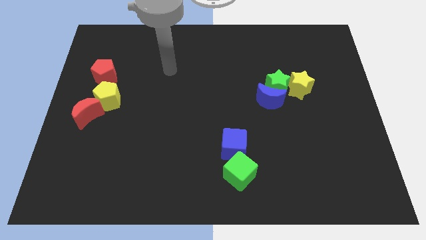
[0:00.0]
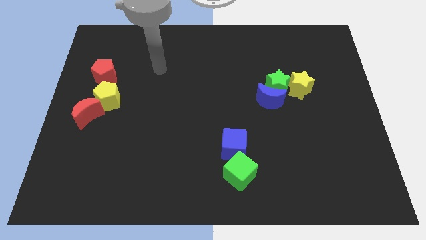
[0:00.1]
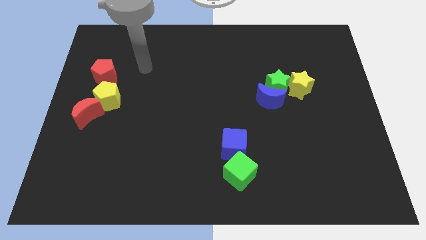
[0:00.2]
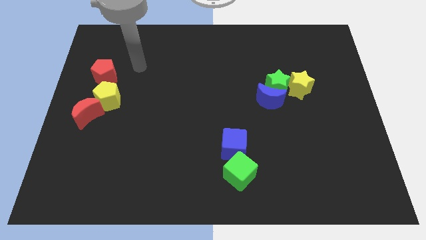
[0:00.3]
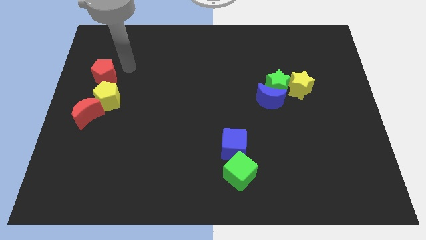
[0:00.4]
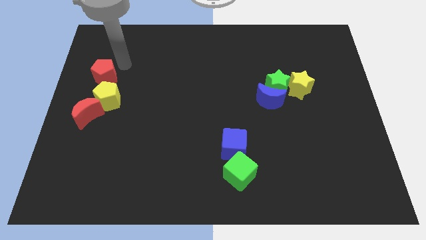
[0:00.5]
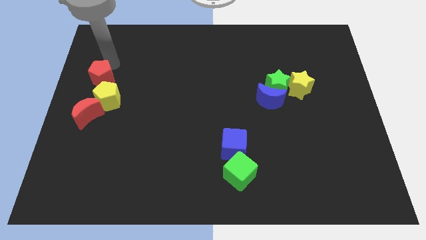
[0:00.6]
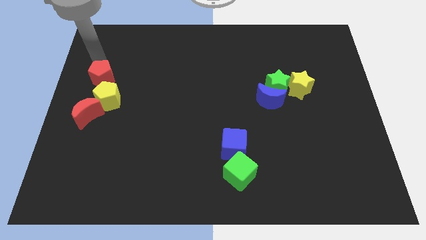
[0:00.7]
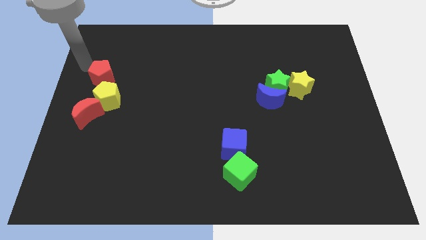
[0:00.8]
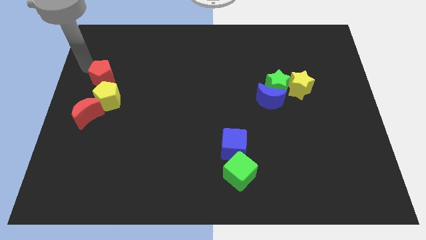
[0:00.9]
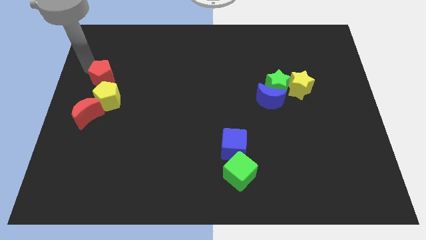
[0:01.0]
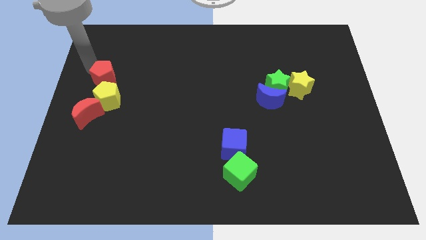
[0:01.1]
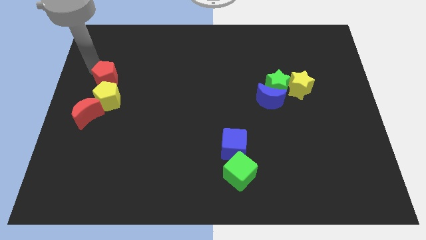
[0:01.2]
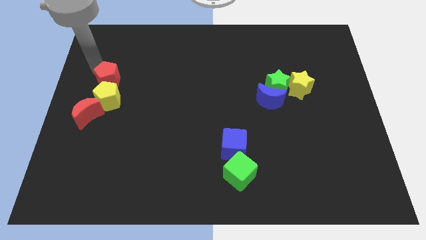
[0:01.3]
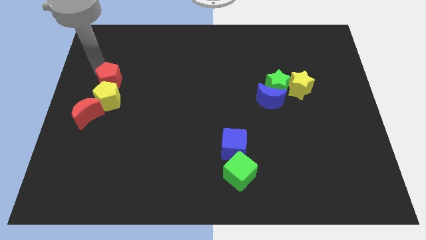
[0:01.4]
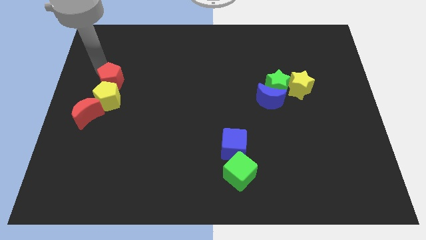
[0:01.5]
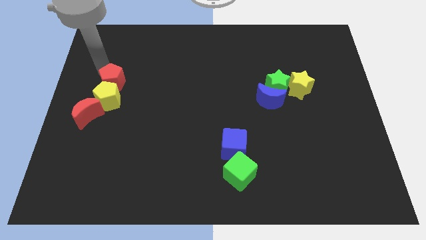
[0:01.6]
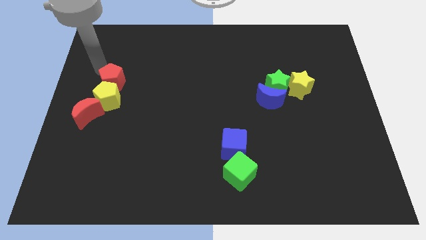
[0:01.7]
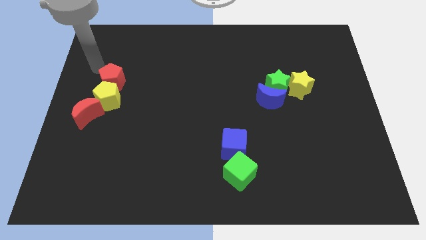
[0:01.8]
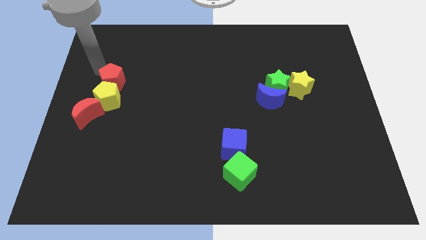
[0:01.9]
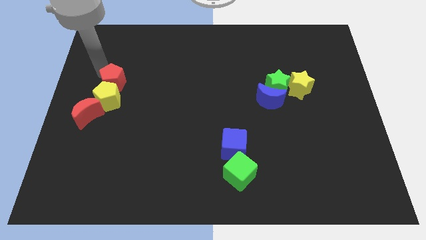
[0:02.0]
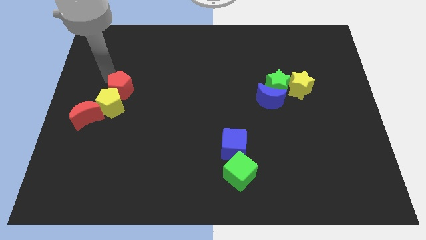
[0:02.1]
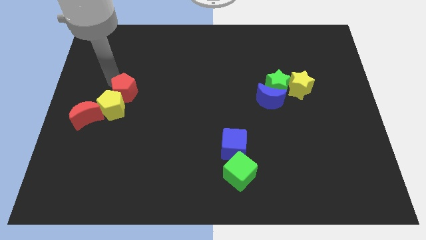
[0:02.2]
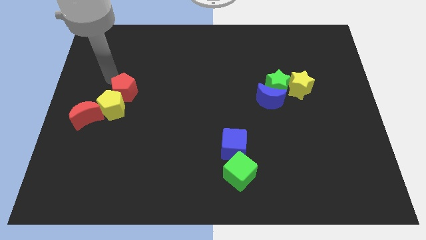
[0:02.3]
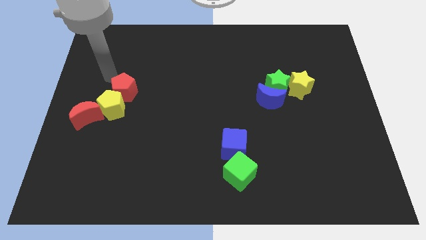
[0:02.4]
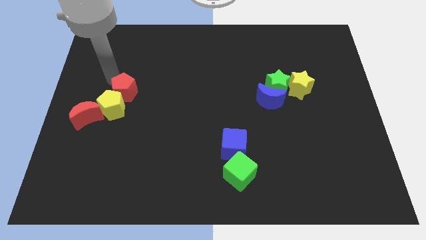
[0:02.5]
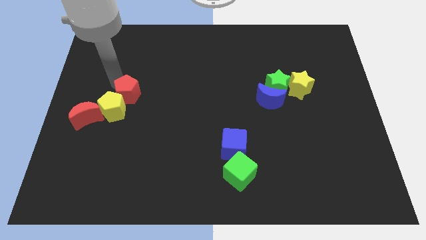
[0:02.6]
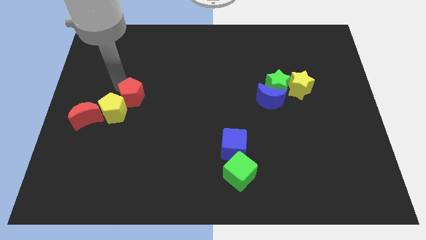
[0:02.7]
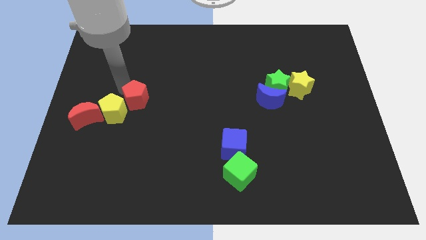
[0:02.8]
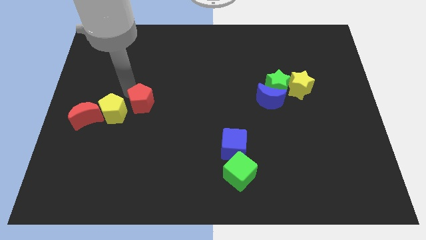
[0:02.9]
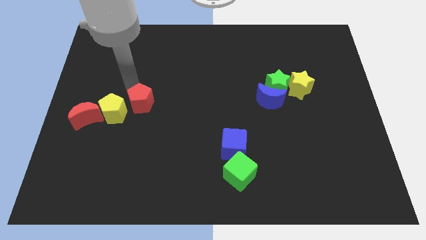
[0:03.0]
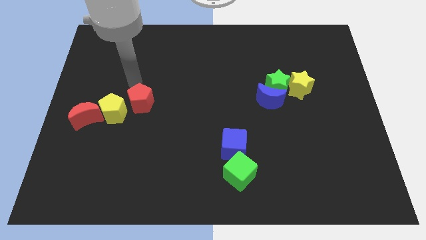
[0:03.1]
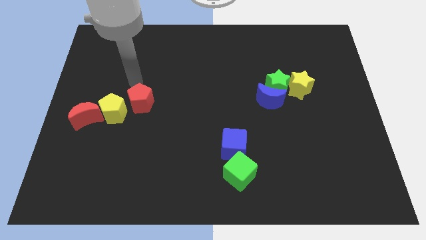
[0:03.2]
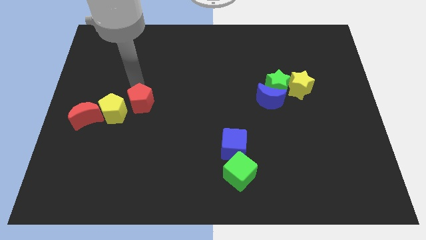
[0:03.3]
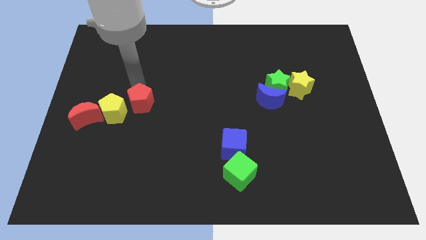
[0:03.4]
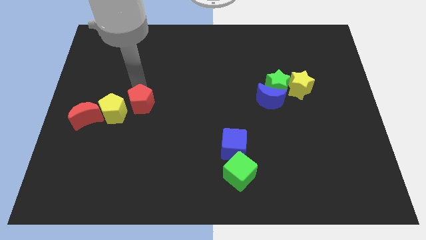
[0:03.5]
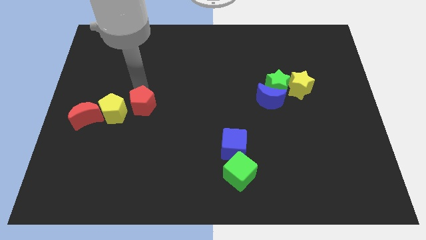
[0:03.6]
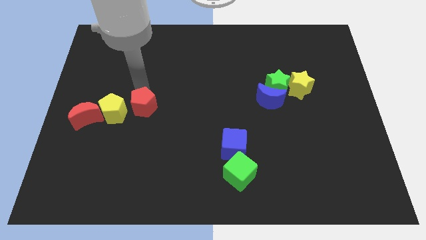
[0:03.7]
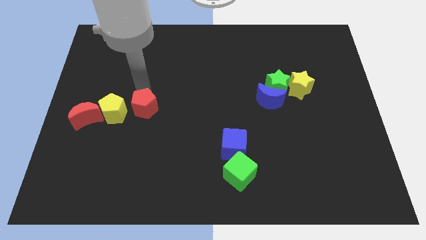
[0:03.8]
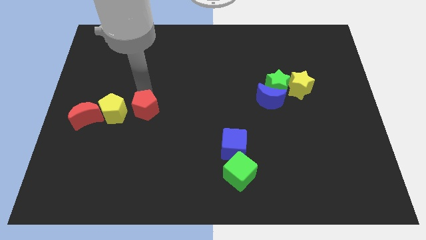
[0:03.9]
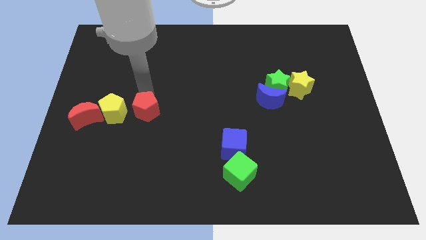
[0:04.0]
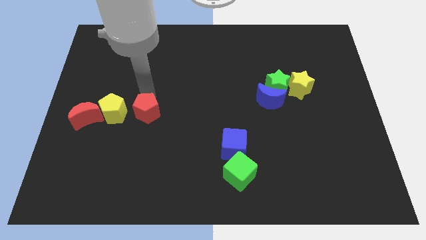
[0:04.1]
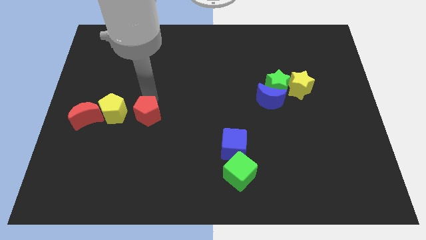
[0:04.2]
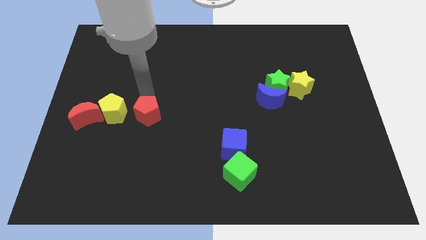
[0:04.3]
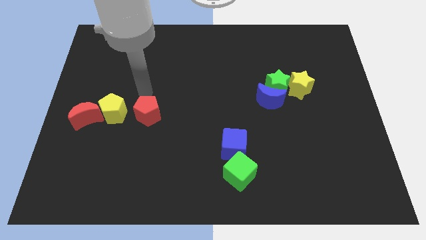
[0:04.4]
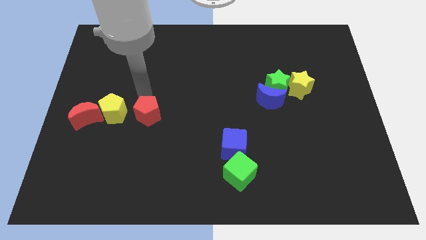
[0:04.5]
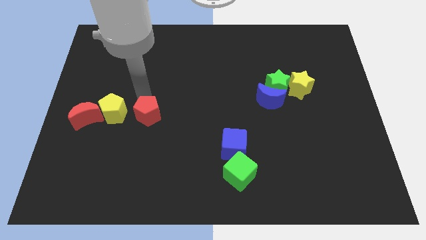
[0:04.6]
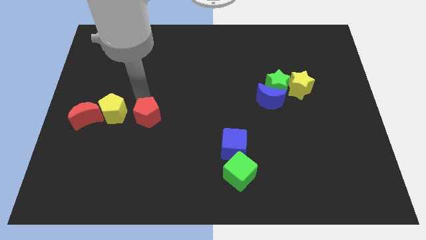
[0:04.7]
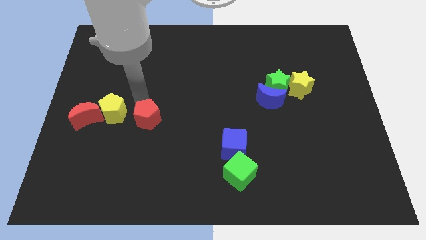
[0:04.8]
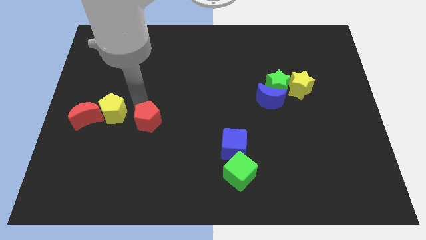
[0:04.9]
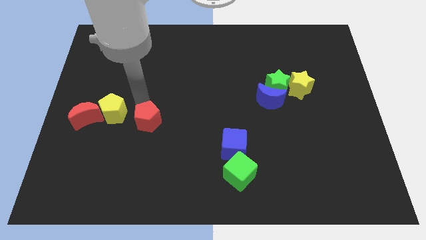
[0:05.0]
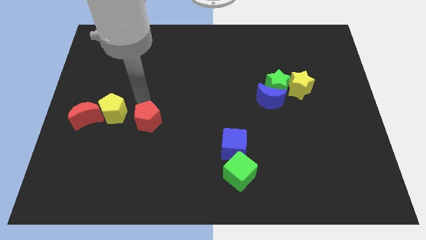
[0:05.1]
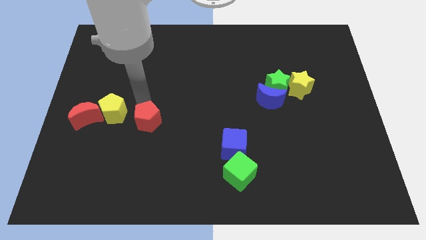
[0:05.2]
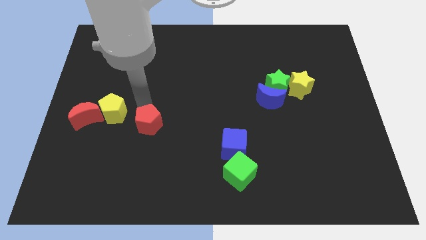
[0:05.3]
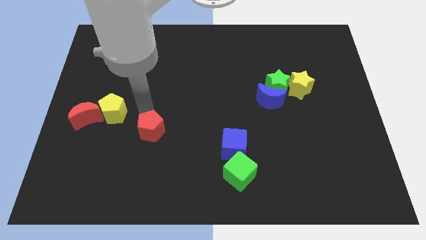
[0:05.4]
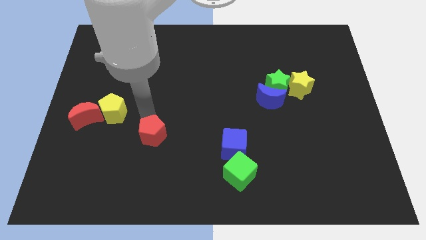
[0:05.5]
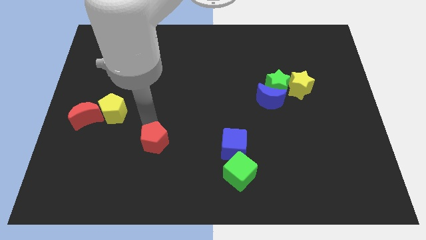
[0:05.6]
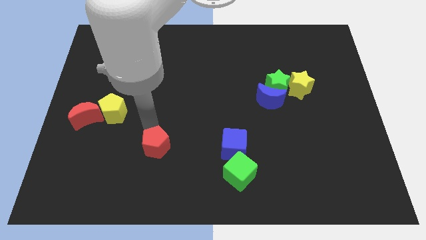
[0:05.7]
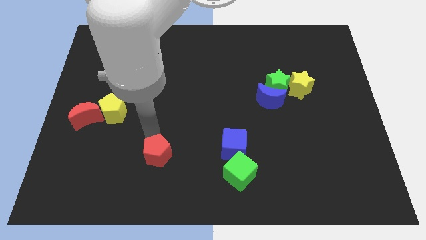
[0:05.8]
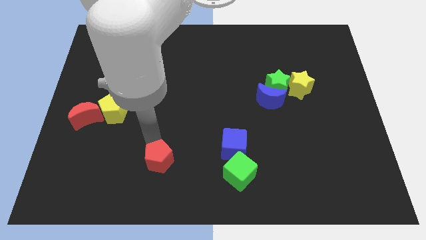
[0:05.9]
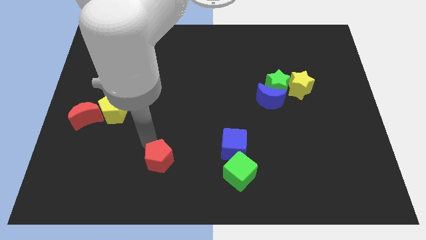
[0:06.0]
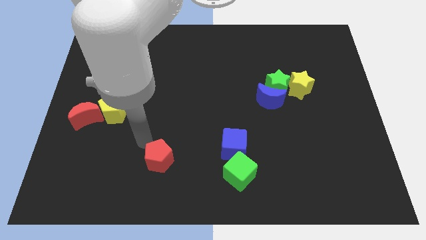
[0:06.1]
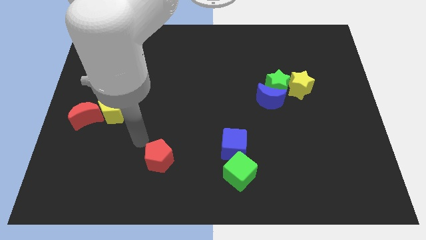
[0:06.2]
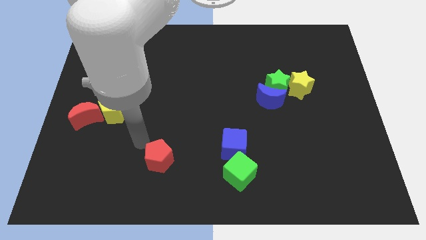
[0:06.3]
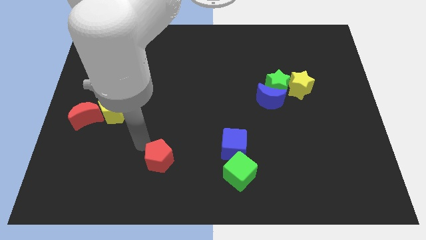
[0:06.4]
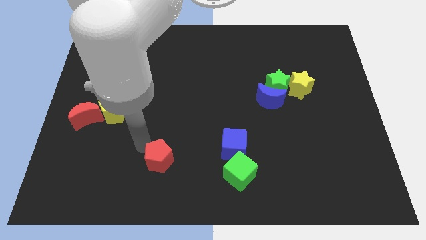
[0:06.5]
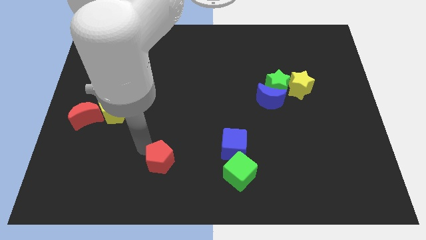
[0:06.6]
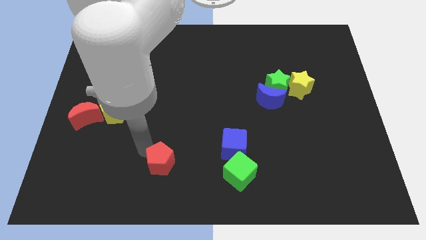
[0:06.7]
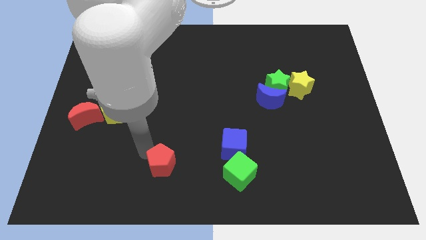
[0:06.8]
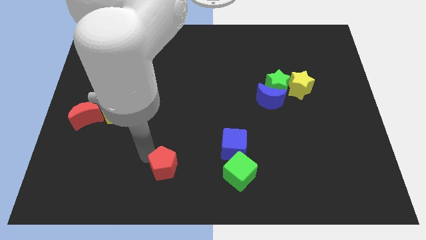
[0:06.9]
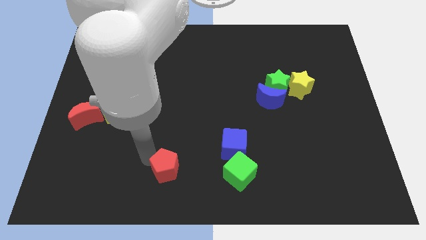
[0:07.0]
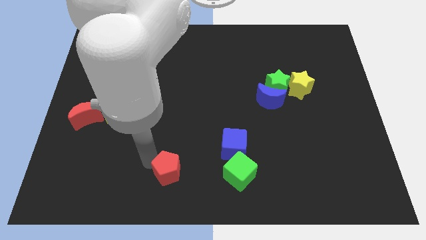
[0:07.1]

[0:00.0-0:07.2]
slide the red pentagon to the bottom side
